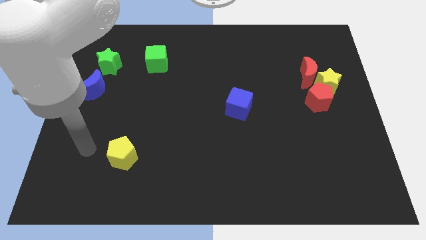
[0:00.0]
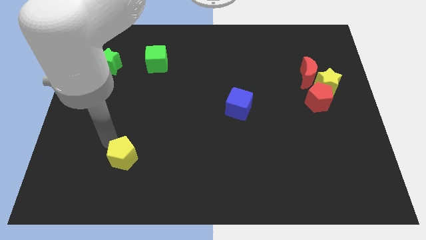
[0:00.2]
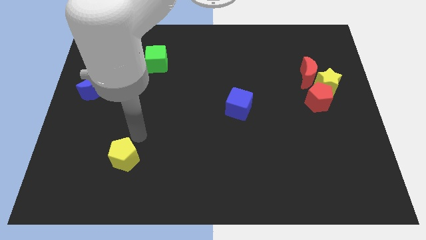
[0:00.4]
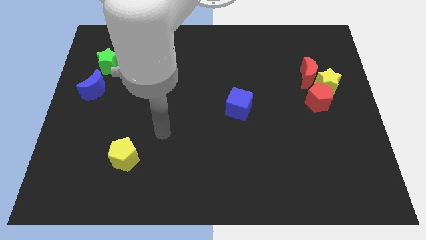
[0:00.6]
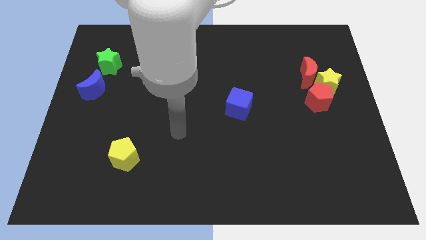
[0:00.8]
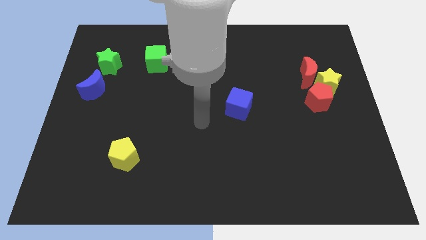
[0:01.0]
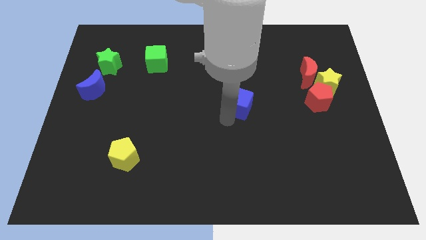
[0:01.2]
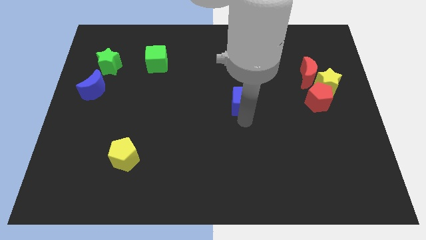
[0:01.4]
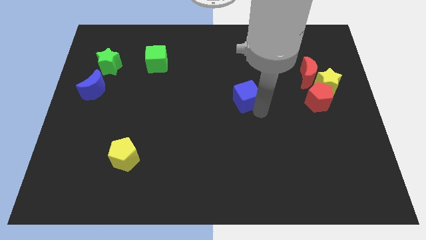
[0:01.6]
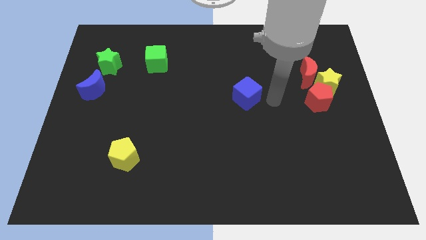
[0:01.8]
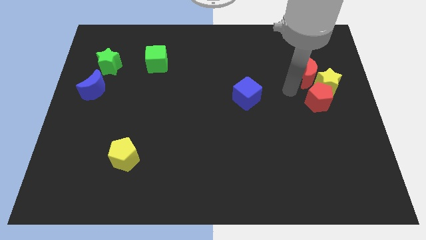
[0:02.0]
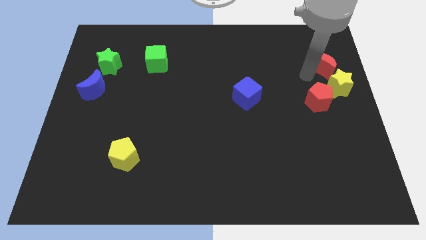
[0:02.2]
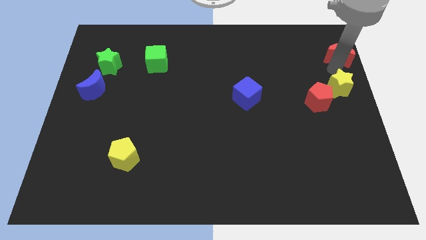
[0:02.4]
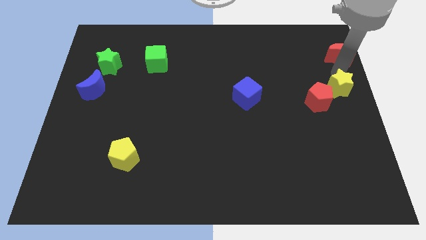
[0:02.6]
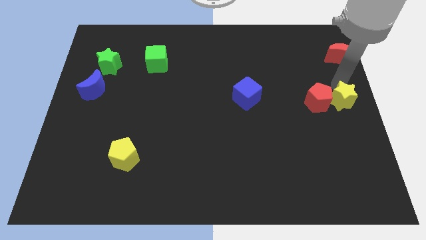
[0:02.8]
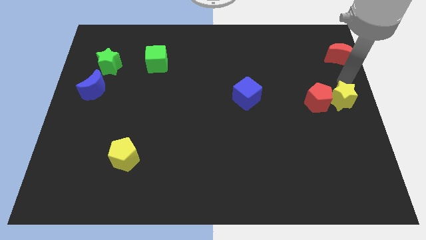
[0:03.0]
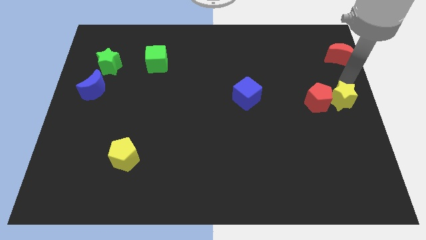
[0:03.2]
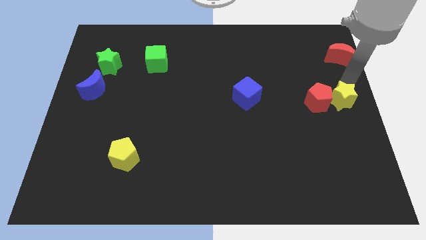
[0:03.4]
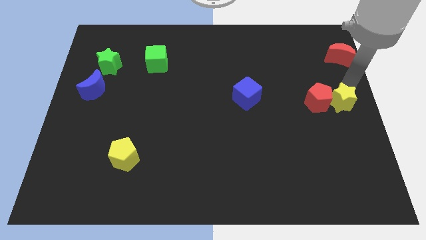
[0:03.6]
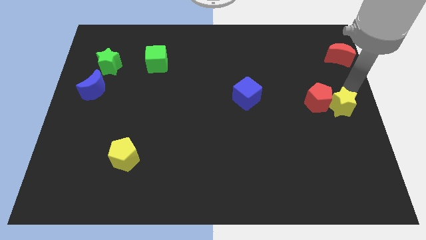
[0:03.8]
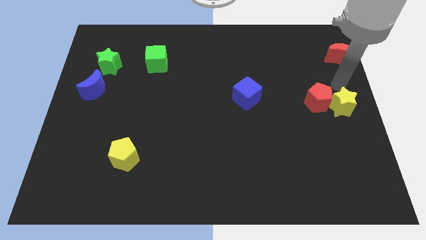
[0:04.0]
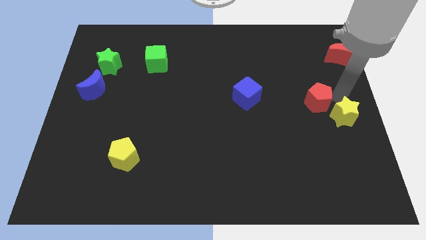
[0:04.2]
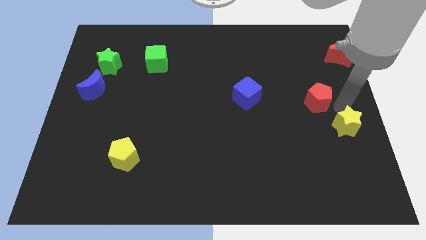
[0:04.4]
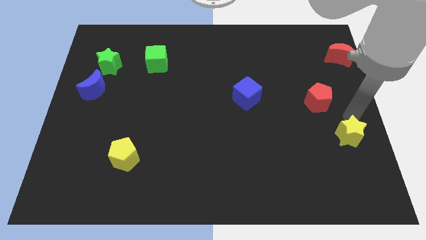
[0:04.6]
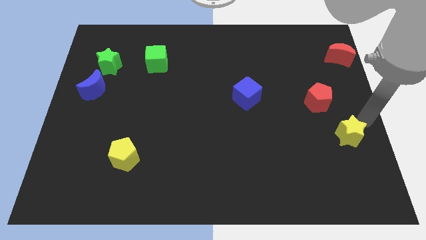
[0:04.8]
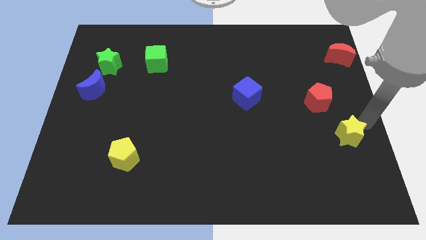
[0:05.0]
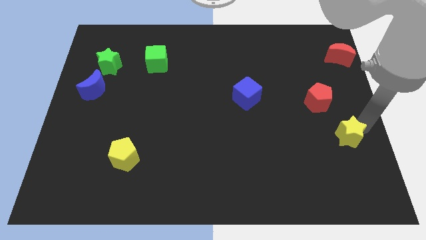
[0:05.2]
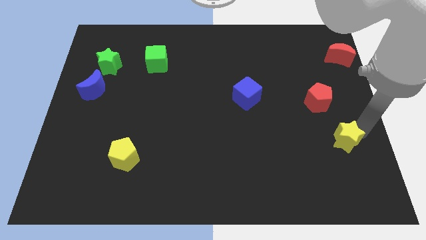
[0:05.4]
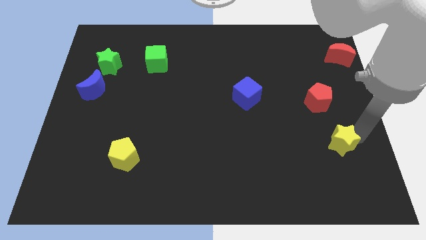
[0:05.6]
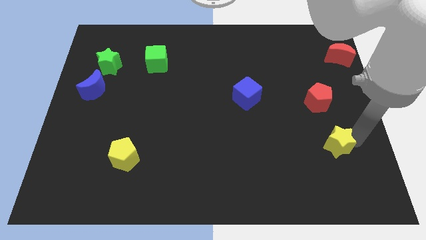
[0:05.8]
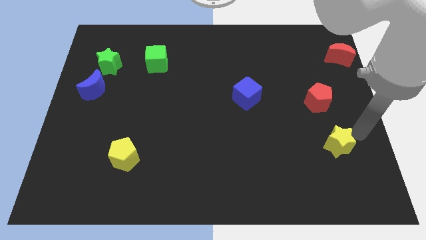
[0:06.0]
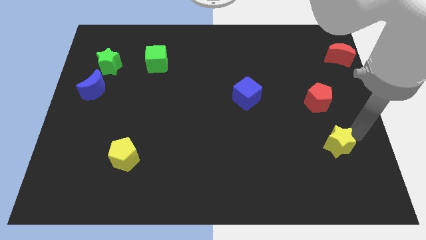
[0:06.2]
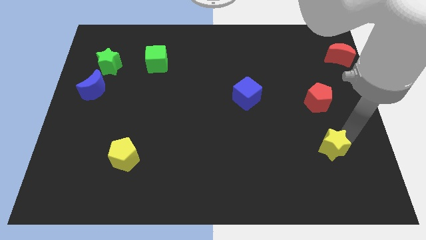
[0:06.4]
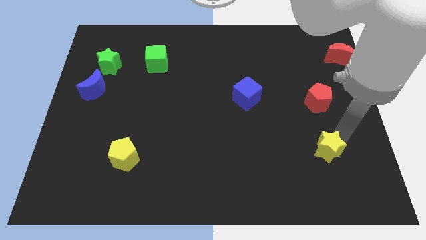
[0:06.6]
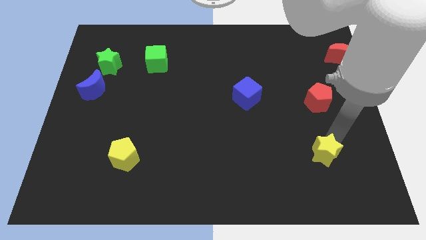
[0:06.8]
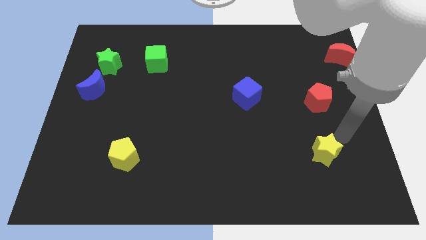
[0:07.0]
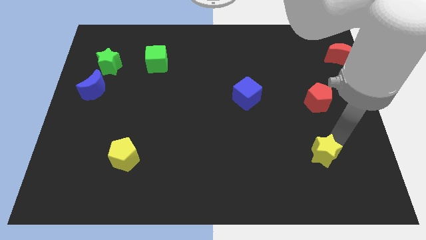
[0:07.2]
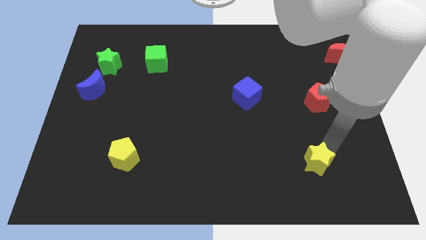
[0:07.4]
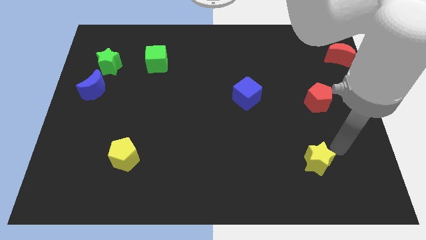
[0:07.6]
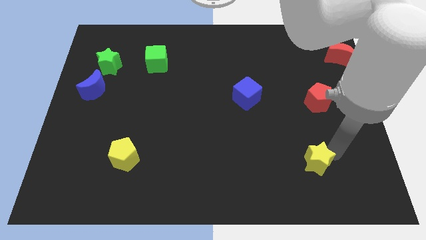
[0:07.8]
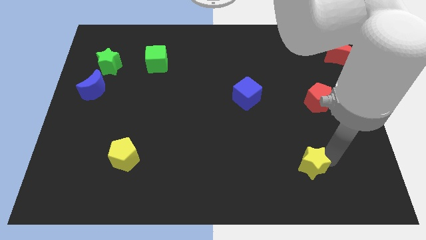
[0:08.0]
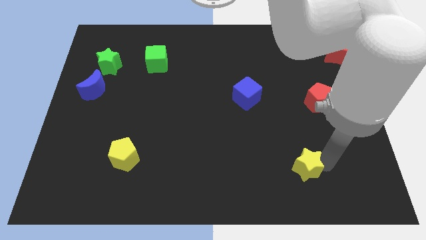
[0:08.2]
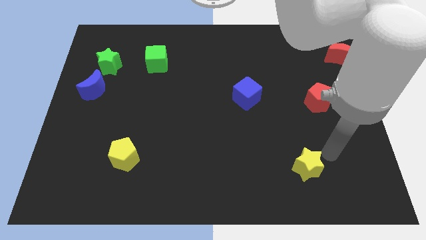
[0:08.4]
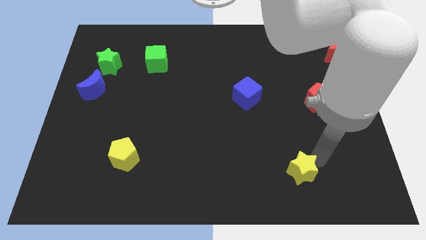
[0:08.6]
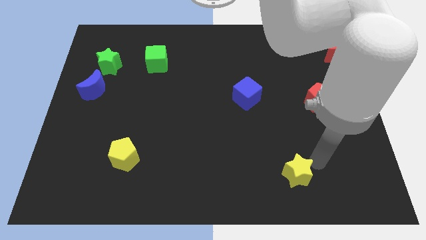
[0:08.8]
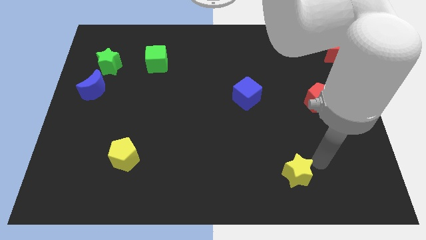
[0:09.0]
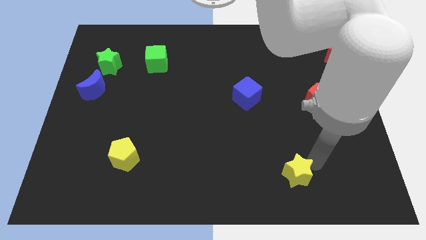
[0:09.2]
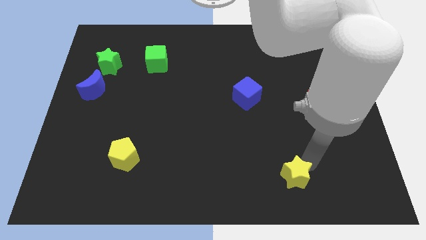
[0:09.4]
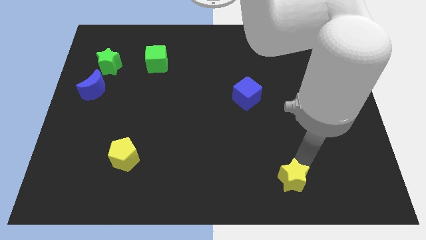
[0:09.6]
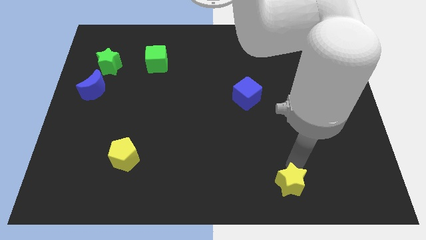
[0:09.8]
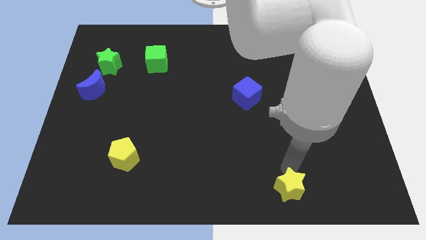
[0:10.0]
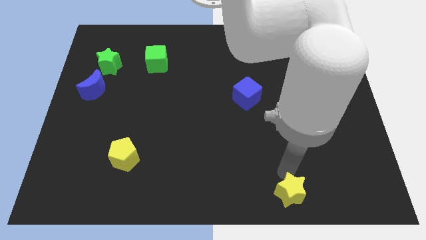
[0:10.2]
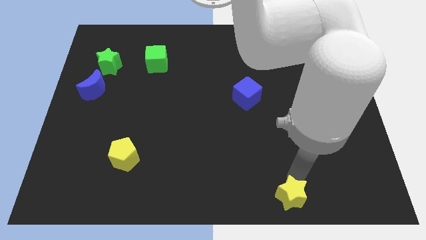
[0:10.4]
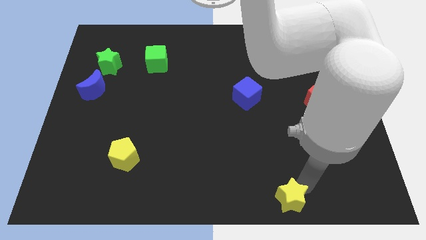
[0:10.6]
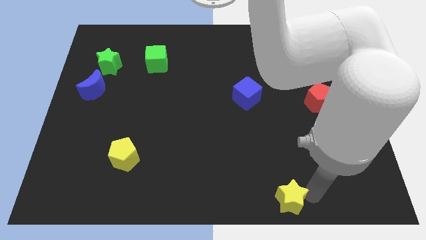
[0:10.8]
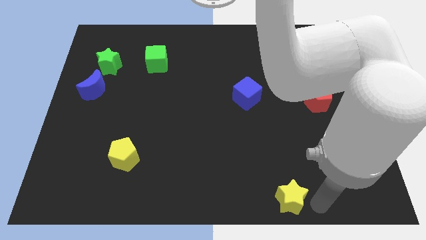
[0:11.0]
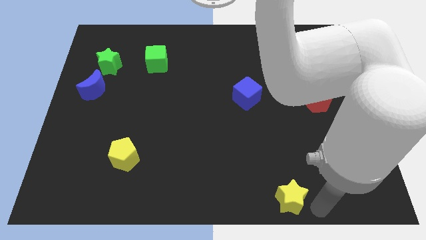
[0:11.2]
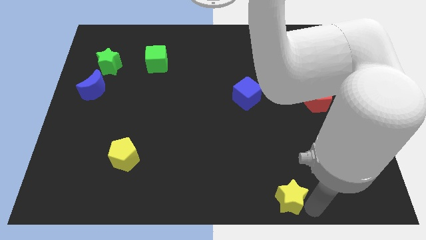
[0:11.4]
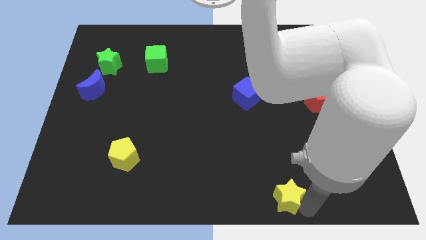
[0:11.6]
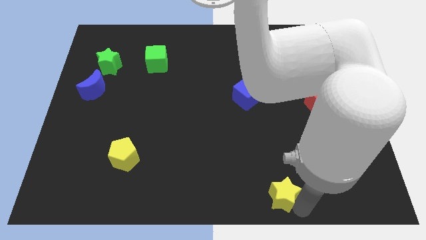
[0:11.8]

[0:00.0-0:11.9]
put the yellow star to the bottom side

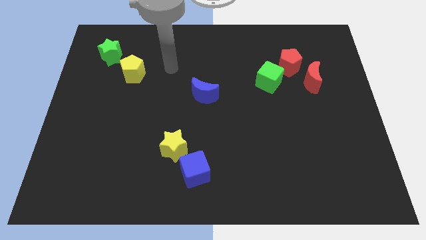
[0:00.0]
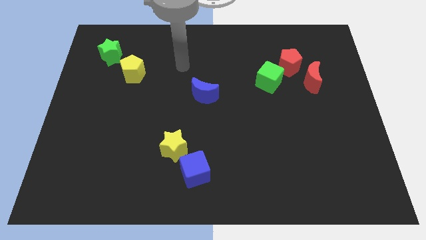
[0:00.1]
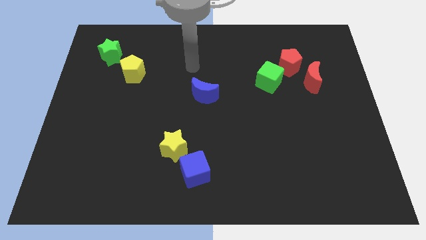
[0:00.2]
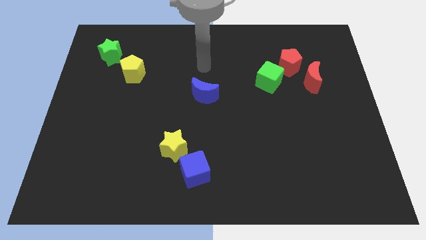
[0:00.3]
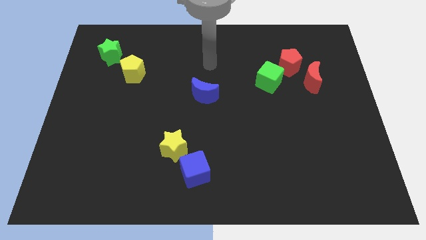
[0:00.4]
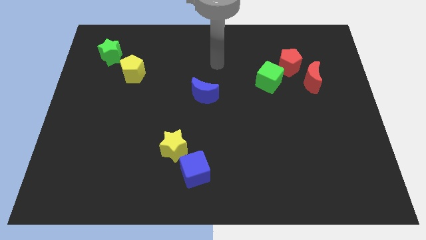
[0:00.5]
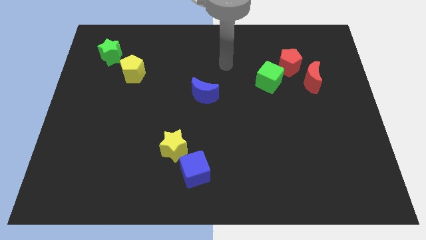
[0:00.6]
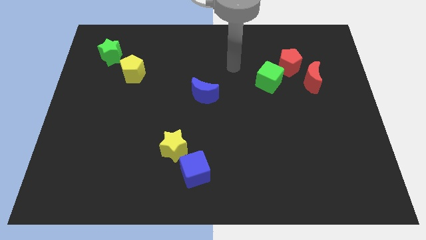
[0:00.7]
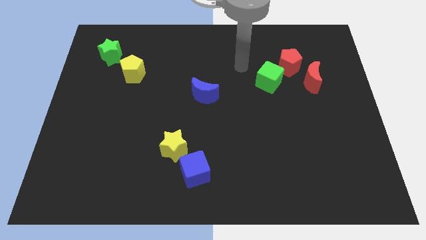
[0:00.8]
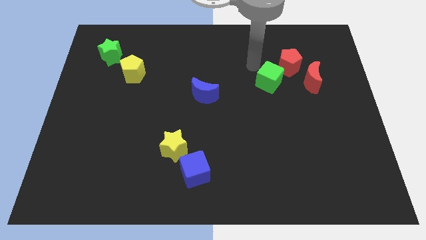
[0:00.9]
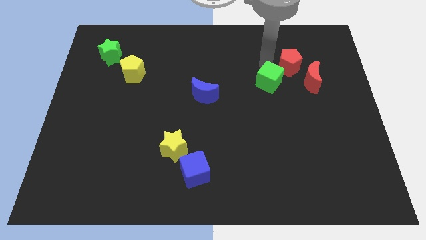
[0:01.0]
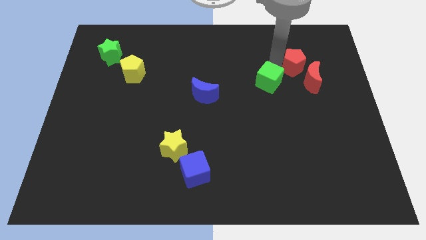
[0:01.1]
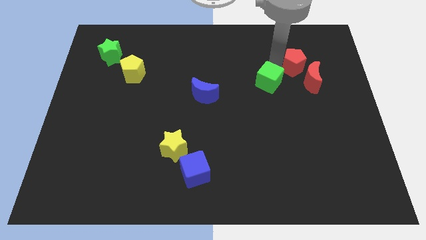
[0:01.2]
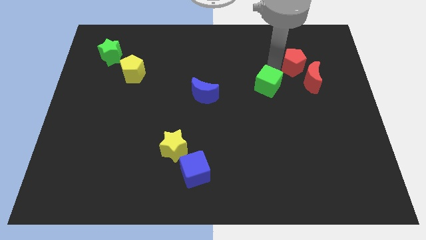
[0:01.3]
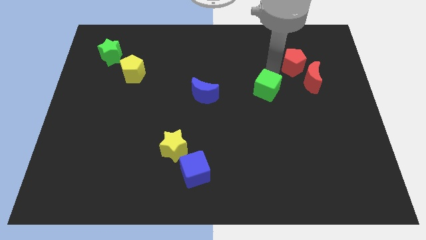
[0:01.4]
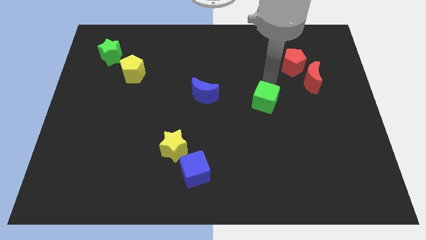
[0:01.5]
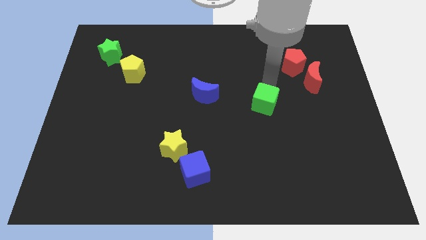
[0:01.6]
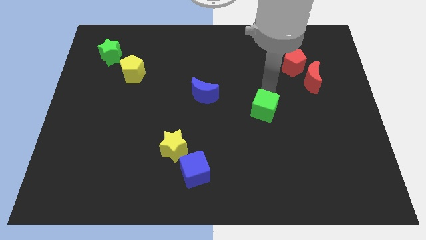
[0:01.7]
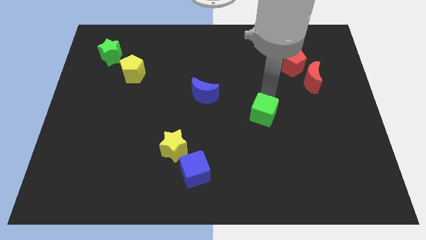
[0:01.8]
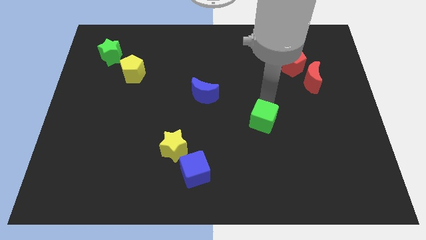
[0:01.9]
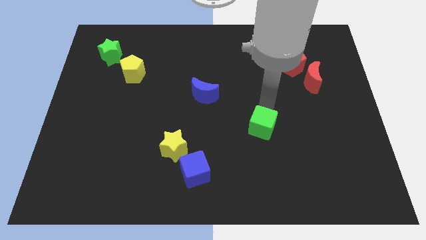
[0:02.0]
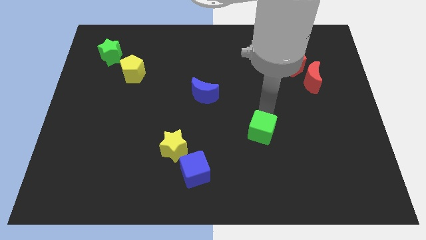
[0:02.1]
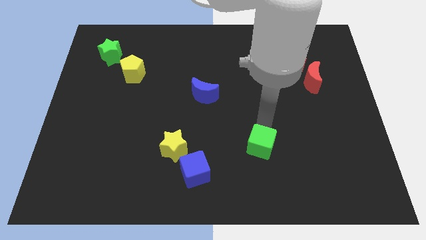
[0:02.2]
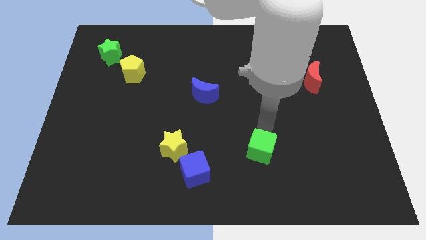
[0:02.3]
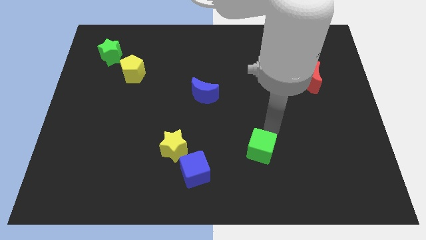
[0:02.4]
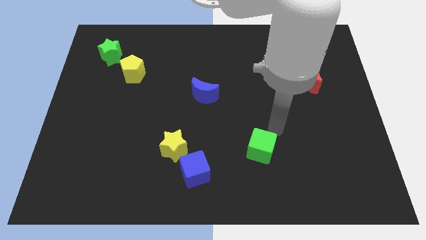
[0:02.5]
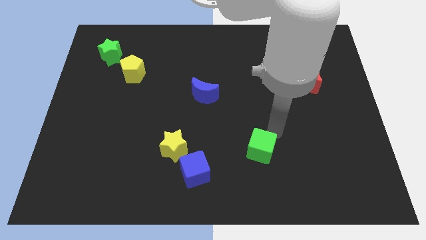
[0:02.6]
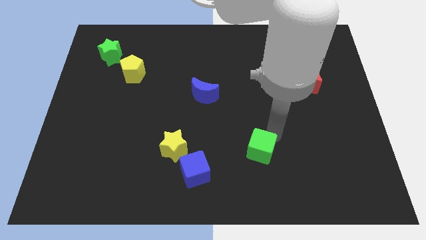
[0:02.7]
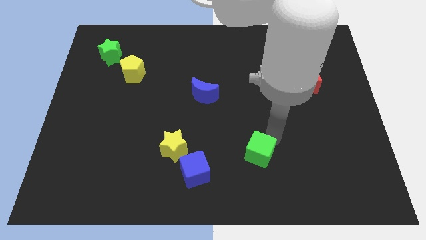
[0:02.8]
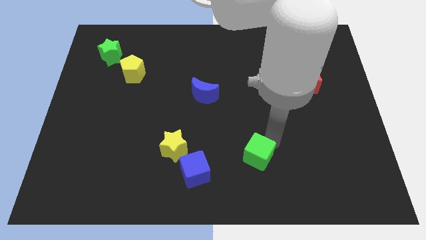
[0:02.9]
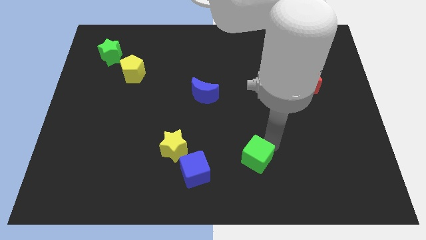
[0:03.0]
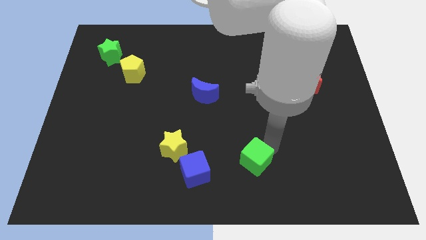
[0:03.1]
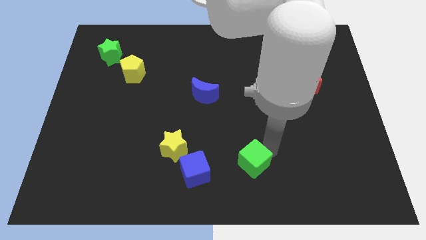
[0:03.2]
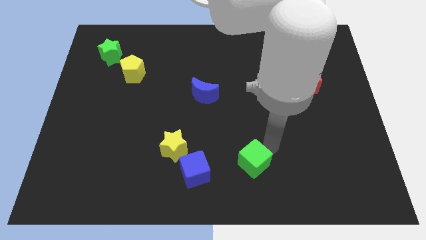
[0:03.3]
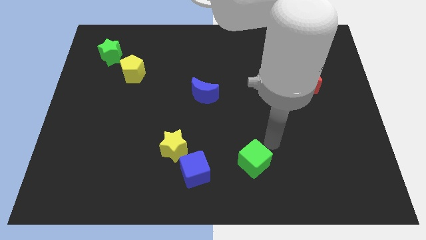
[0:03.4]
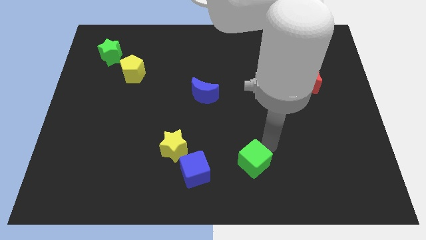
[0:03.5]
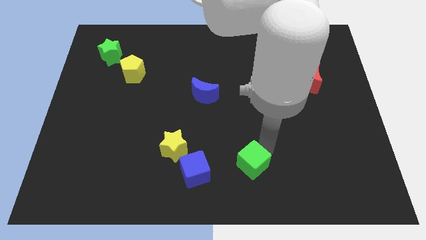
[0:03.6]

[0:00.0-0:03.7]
put the green cube to the bottom
